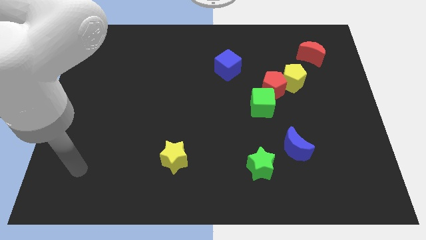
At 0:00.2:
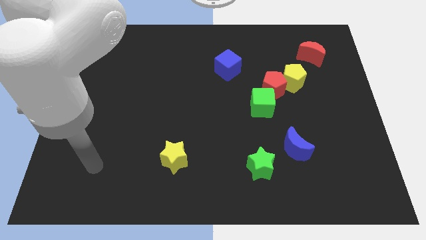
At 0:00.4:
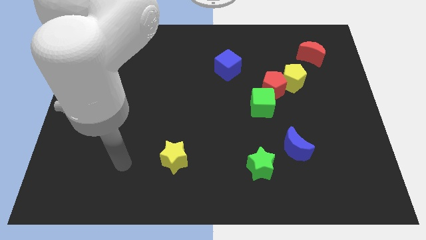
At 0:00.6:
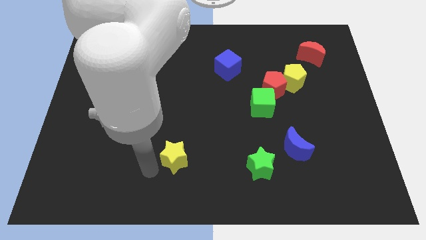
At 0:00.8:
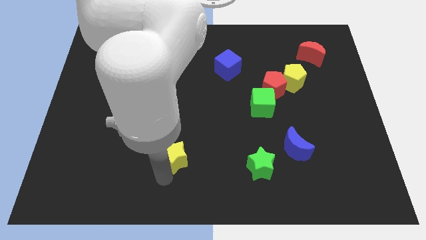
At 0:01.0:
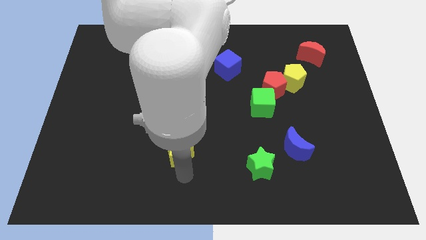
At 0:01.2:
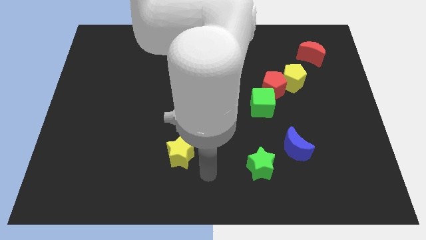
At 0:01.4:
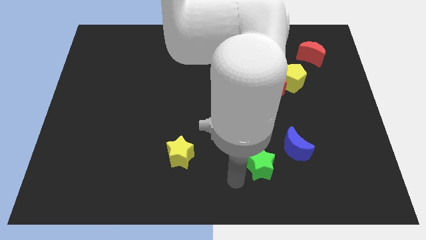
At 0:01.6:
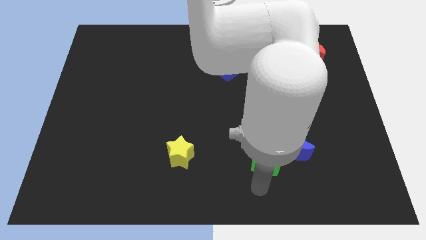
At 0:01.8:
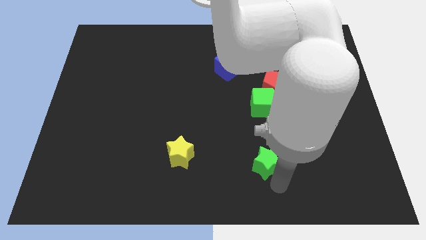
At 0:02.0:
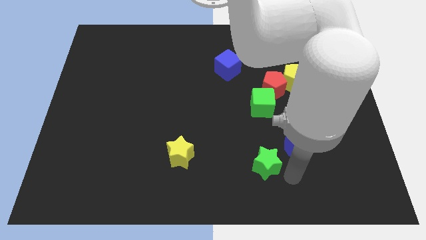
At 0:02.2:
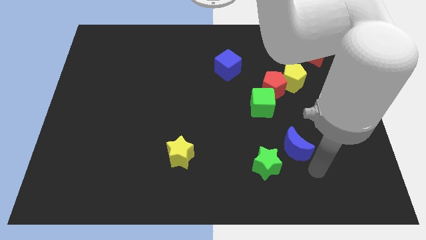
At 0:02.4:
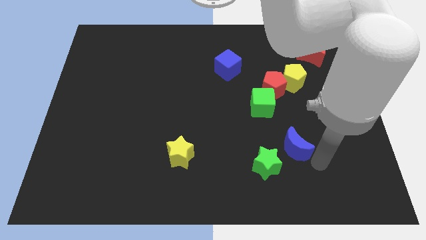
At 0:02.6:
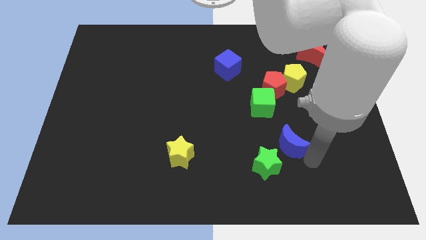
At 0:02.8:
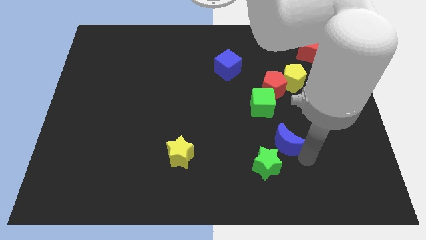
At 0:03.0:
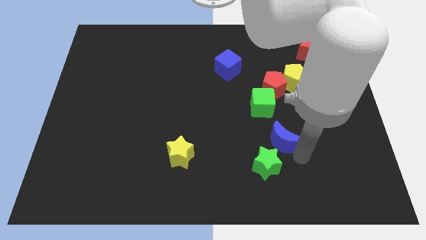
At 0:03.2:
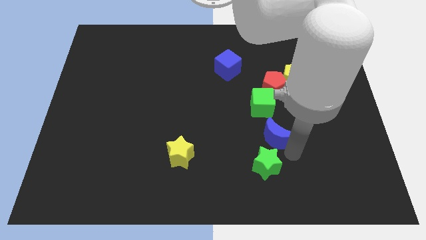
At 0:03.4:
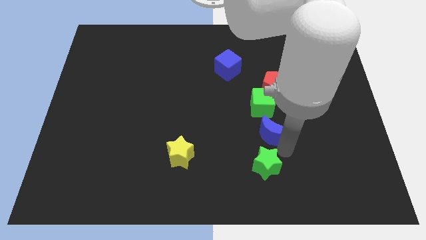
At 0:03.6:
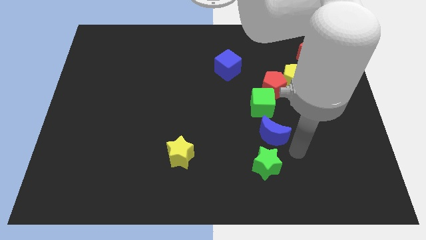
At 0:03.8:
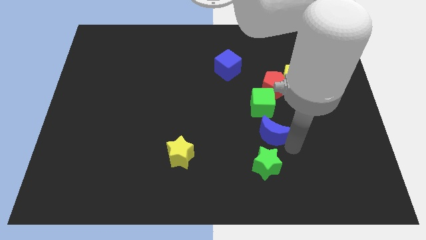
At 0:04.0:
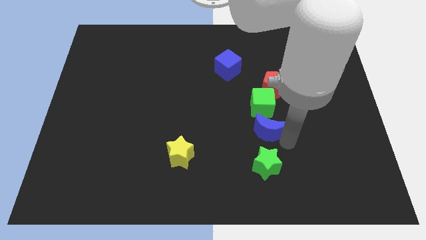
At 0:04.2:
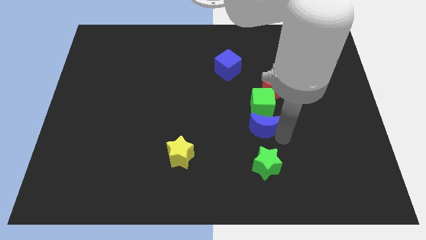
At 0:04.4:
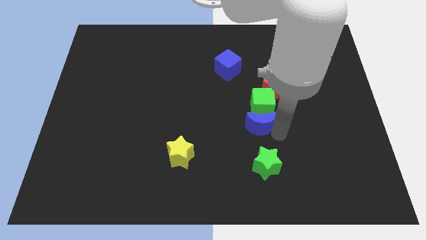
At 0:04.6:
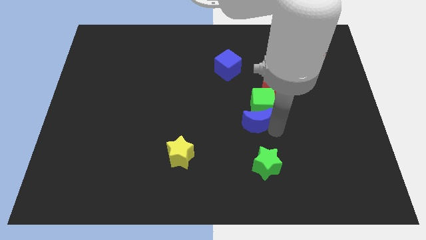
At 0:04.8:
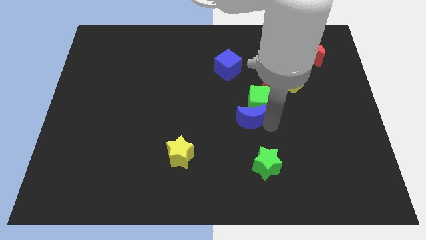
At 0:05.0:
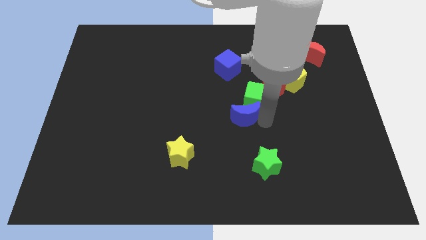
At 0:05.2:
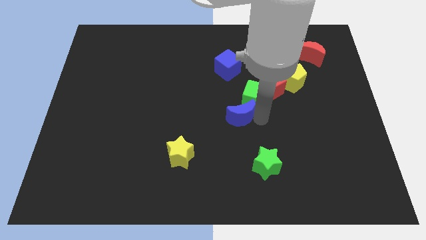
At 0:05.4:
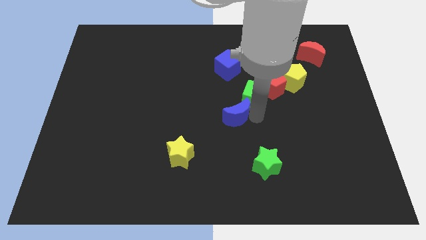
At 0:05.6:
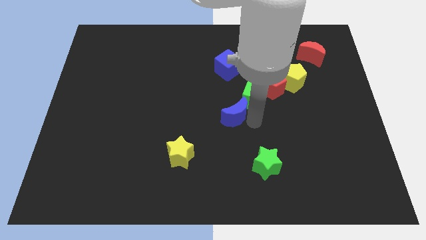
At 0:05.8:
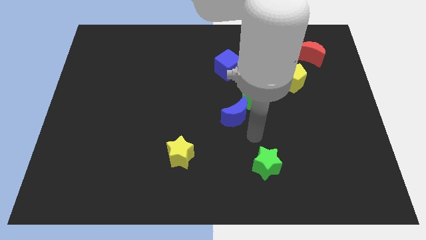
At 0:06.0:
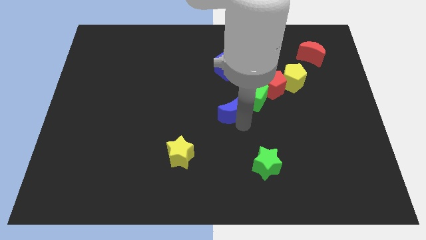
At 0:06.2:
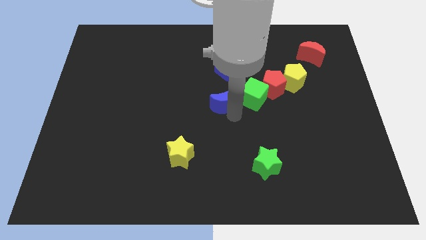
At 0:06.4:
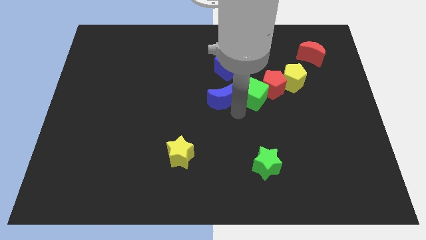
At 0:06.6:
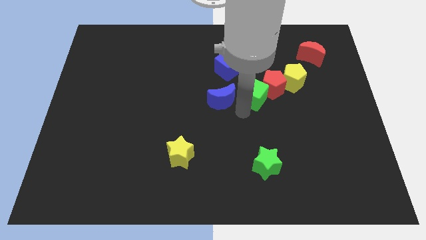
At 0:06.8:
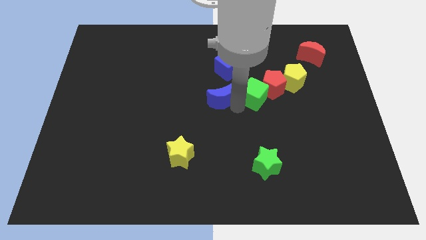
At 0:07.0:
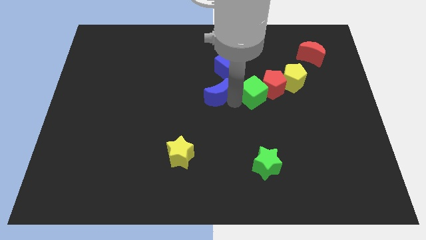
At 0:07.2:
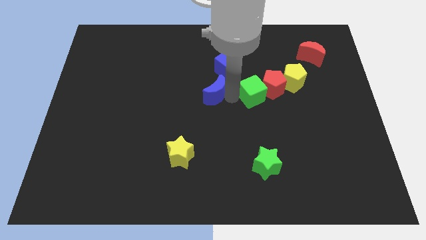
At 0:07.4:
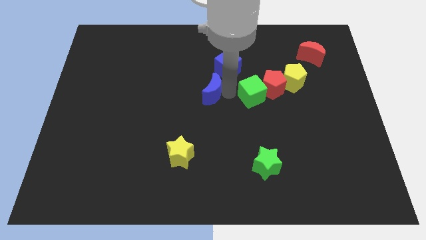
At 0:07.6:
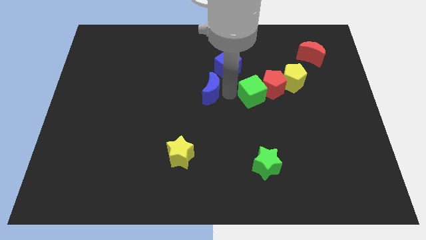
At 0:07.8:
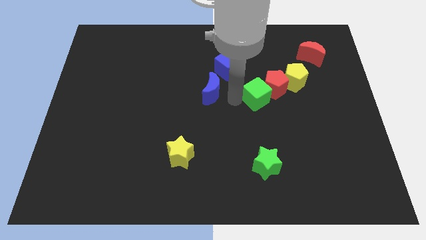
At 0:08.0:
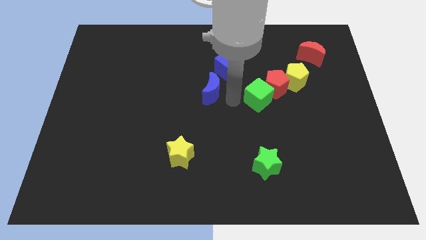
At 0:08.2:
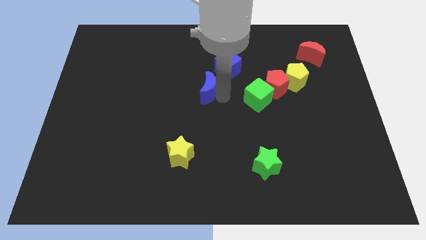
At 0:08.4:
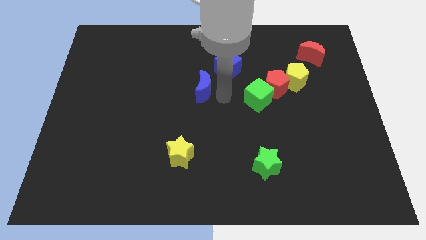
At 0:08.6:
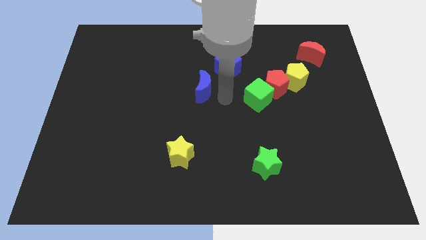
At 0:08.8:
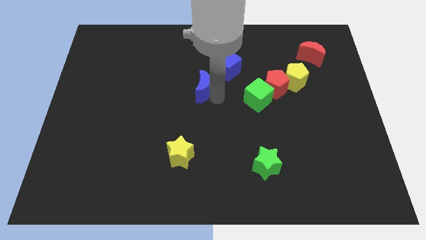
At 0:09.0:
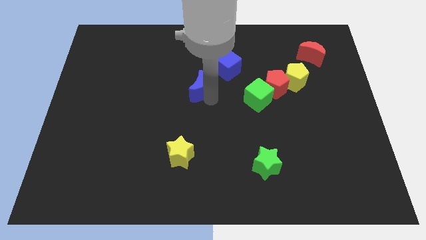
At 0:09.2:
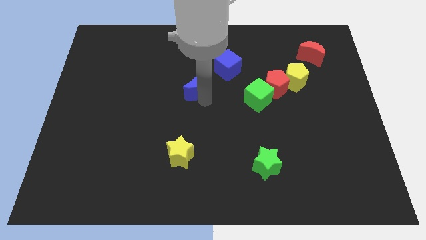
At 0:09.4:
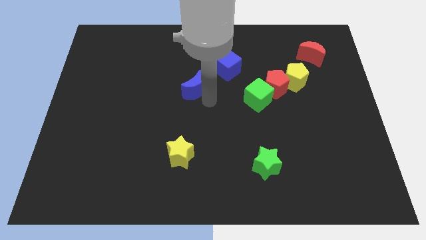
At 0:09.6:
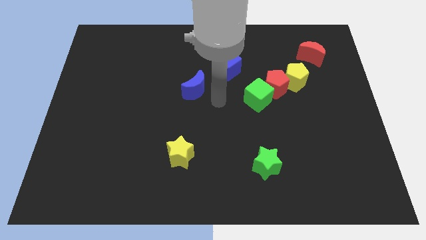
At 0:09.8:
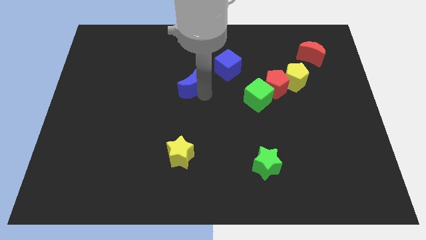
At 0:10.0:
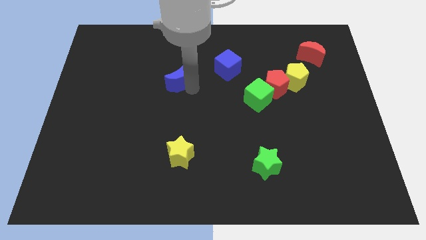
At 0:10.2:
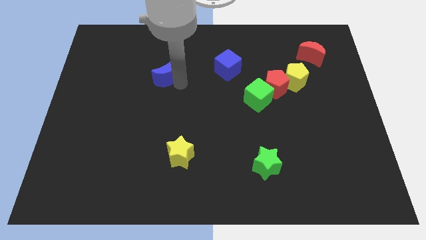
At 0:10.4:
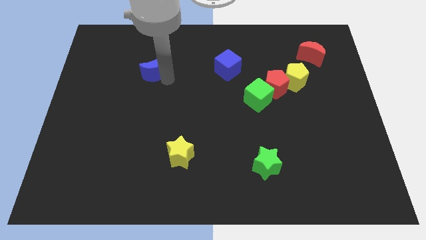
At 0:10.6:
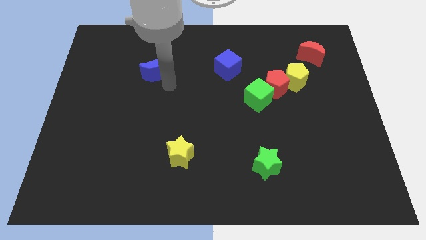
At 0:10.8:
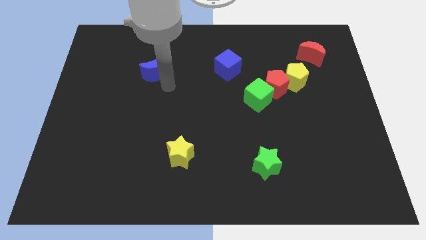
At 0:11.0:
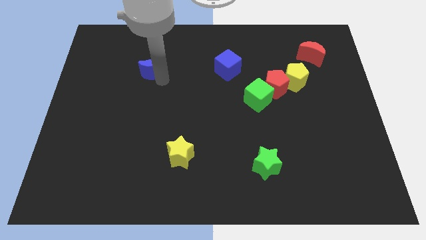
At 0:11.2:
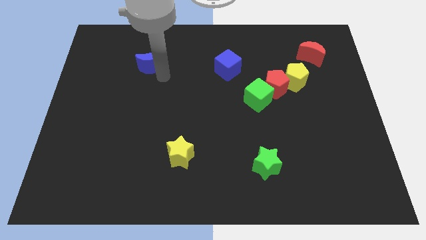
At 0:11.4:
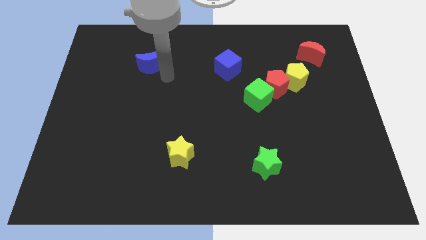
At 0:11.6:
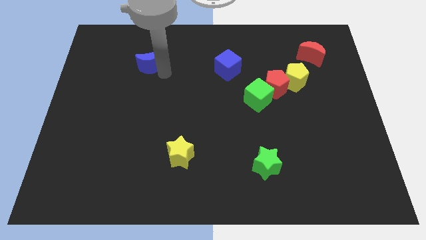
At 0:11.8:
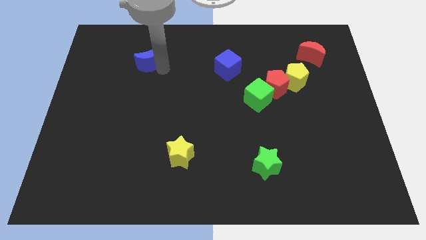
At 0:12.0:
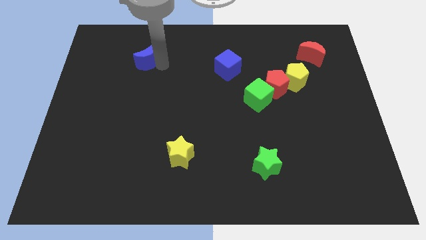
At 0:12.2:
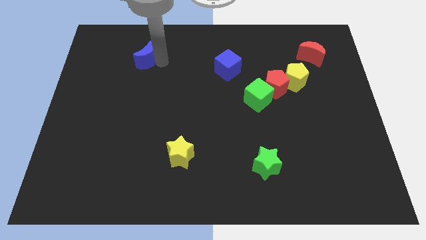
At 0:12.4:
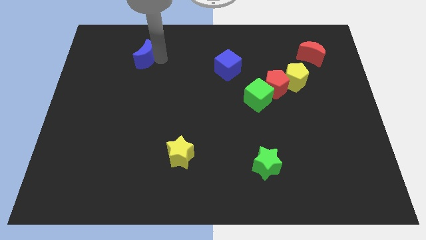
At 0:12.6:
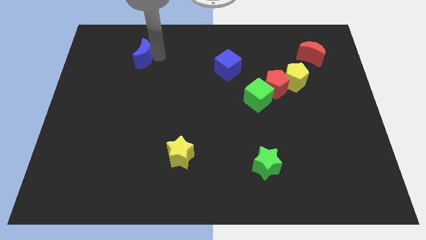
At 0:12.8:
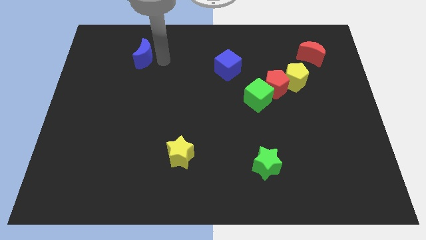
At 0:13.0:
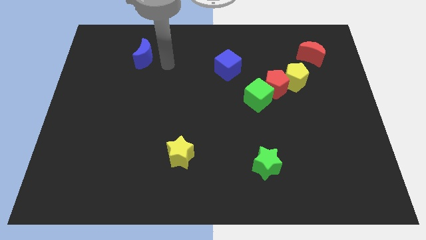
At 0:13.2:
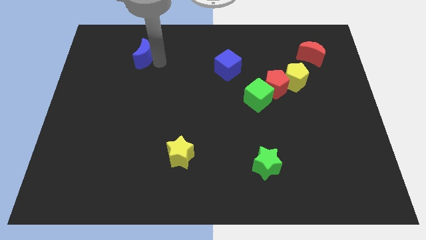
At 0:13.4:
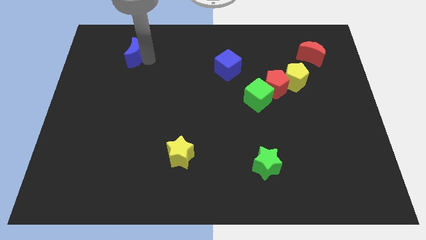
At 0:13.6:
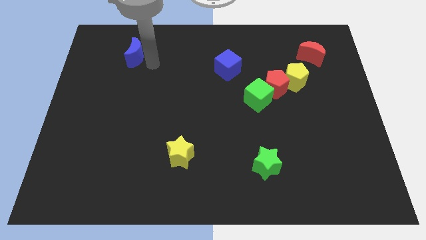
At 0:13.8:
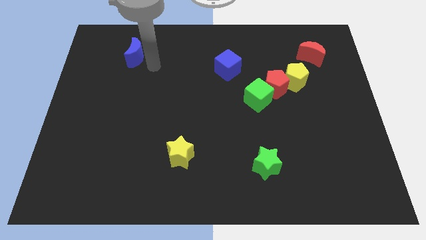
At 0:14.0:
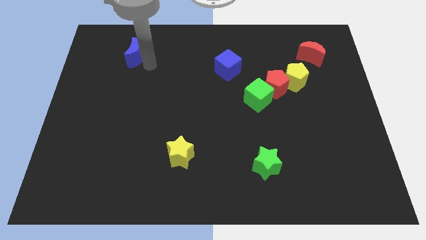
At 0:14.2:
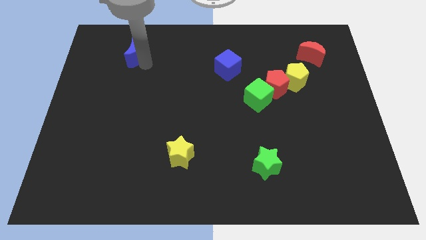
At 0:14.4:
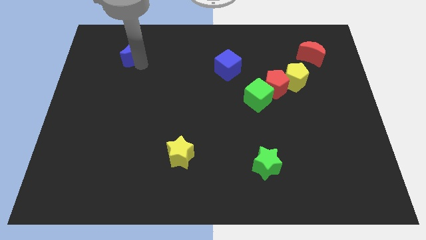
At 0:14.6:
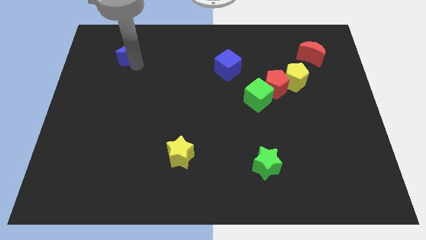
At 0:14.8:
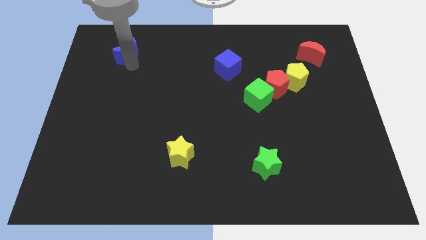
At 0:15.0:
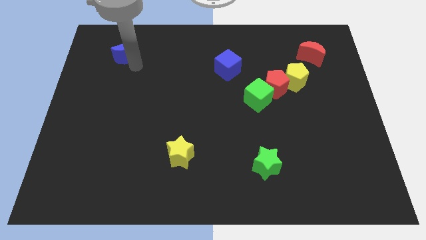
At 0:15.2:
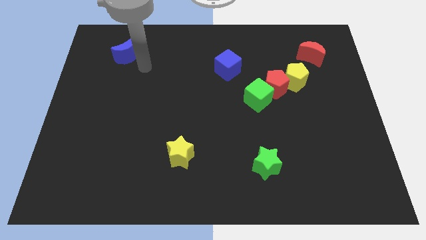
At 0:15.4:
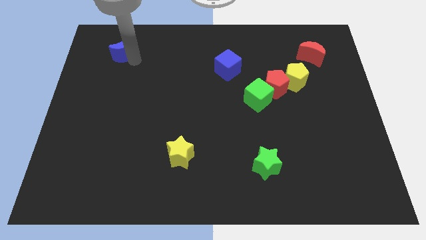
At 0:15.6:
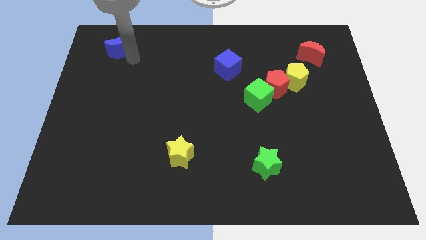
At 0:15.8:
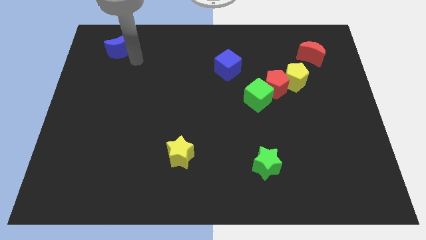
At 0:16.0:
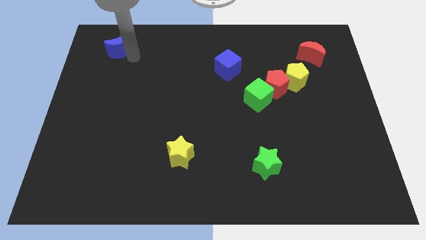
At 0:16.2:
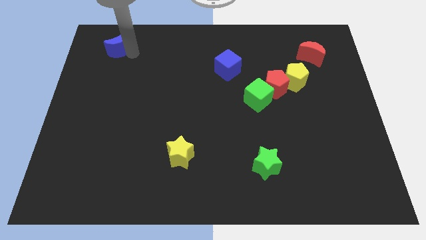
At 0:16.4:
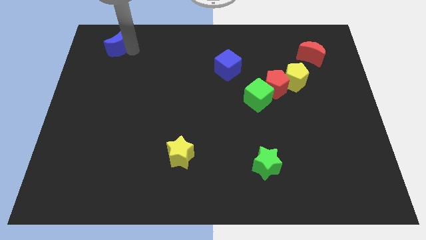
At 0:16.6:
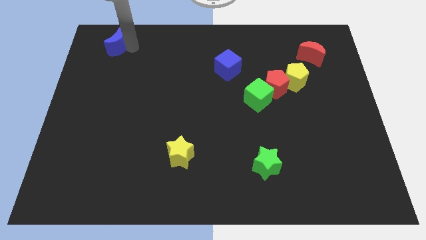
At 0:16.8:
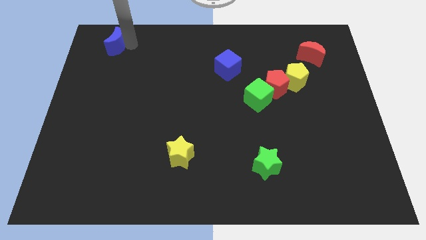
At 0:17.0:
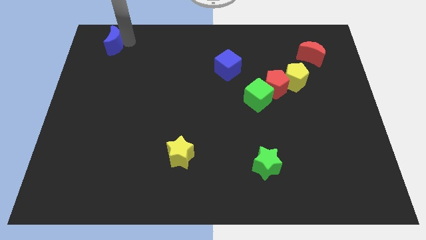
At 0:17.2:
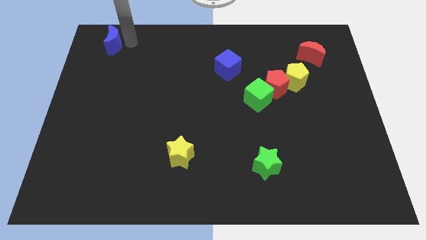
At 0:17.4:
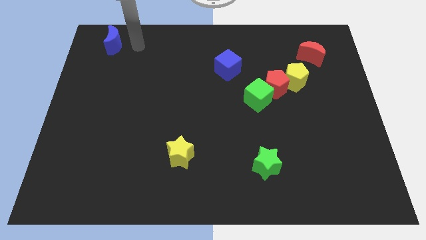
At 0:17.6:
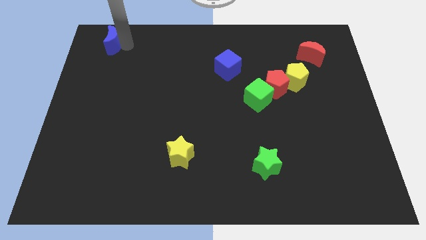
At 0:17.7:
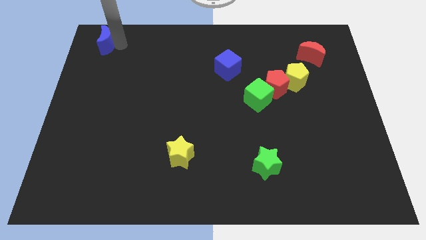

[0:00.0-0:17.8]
move the blue moon to the top left of the board
